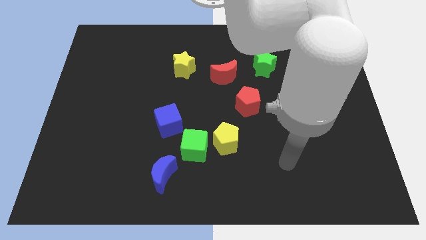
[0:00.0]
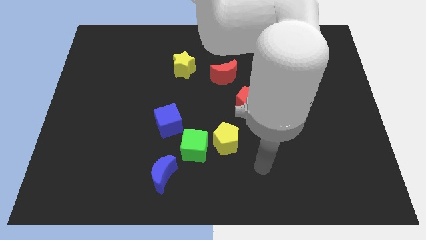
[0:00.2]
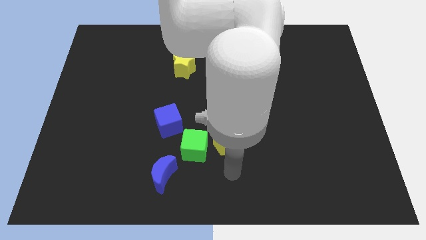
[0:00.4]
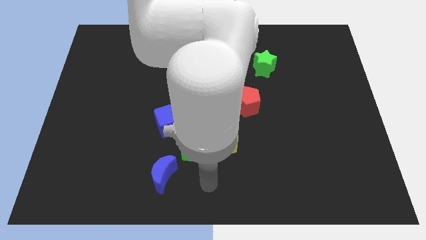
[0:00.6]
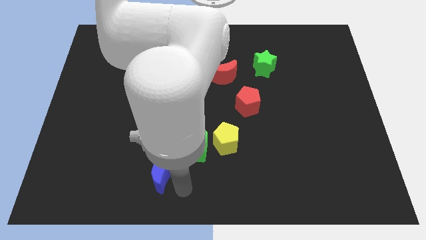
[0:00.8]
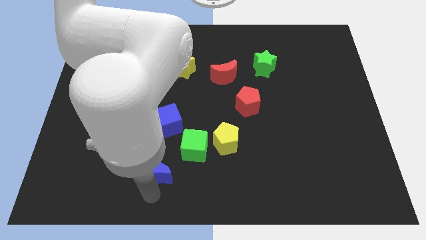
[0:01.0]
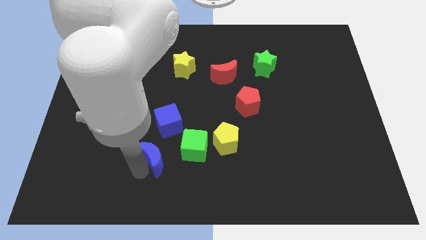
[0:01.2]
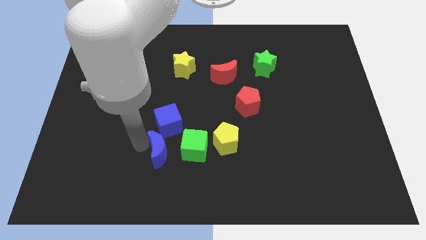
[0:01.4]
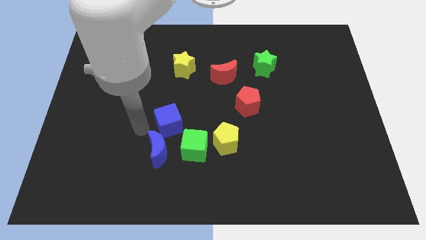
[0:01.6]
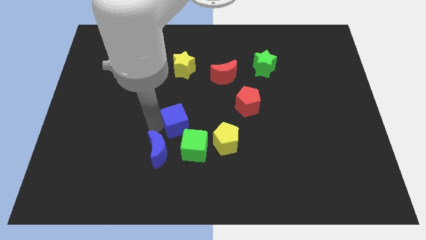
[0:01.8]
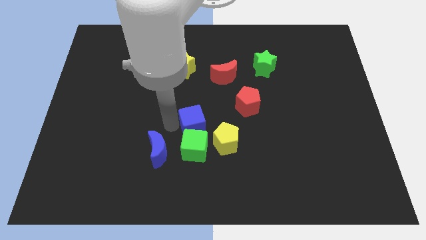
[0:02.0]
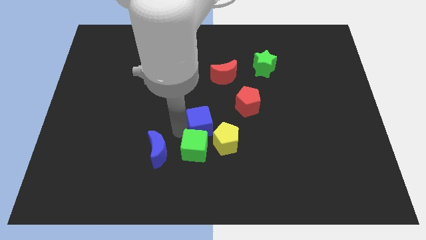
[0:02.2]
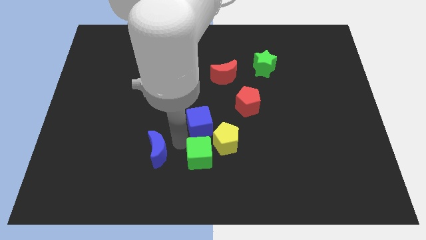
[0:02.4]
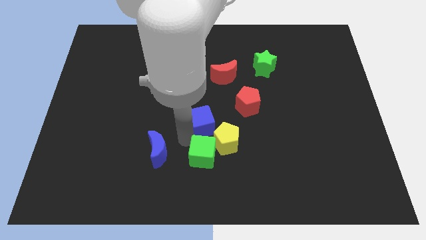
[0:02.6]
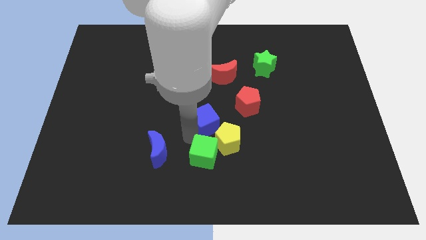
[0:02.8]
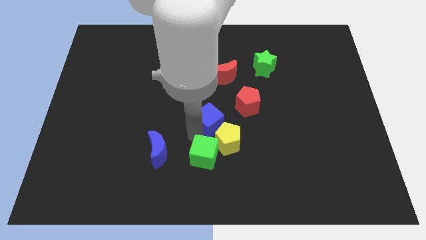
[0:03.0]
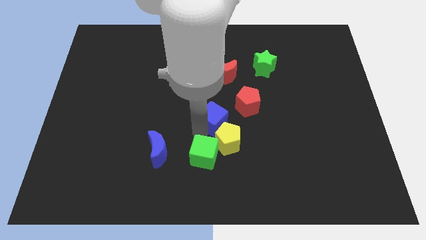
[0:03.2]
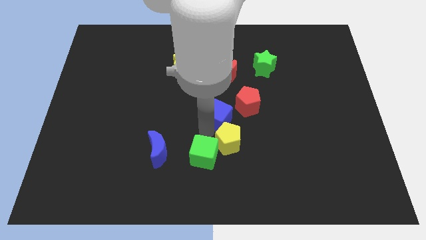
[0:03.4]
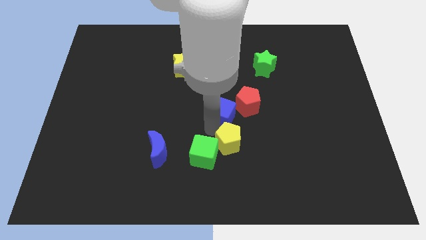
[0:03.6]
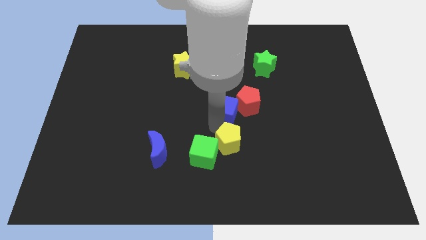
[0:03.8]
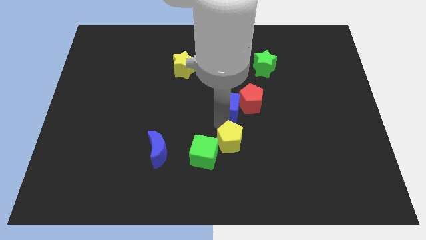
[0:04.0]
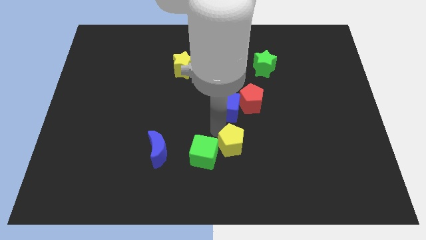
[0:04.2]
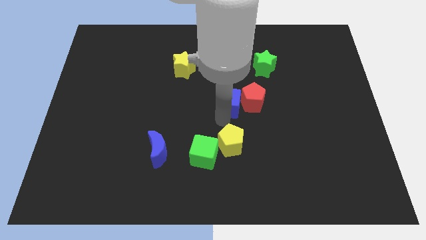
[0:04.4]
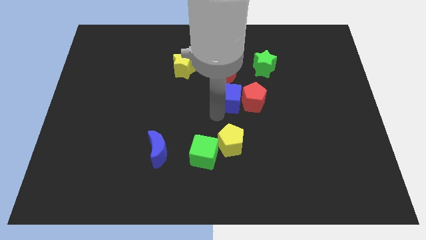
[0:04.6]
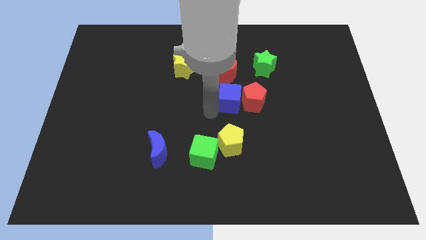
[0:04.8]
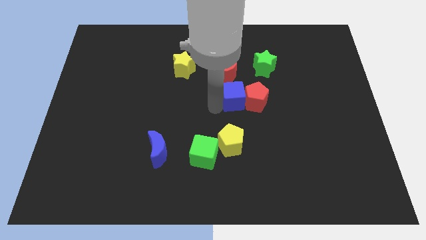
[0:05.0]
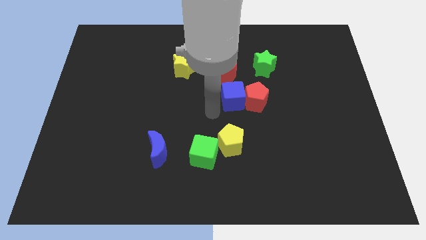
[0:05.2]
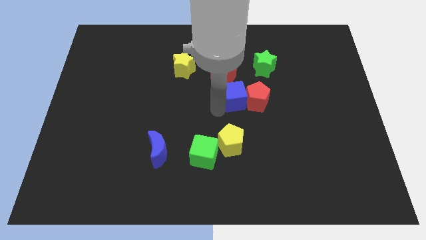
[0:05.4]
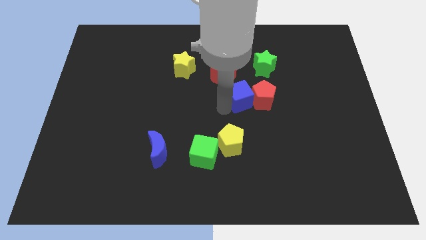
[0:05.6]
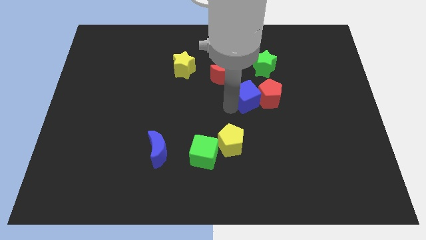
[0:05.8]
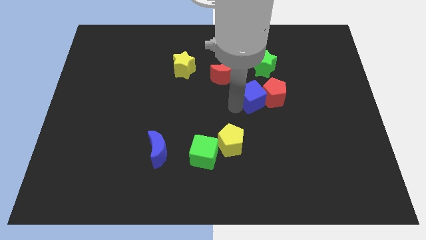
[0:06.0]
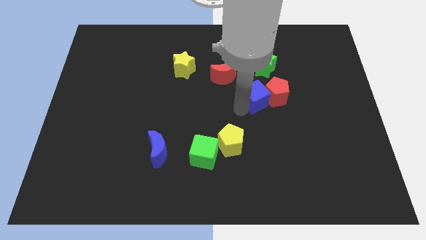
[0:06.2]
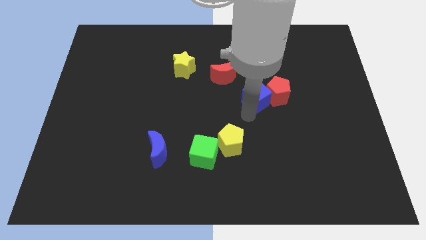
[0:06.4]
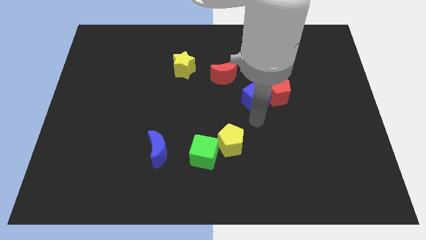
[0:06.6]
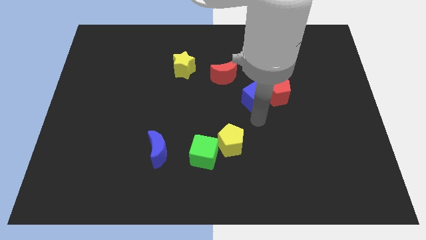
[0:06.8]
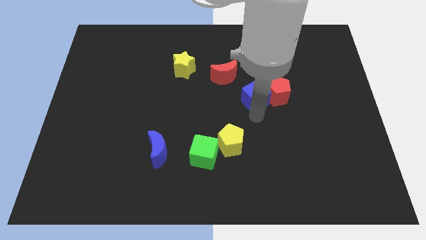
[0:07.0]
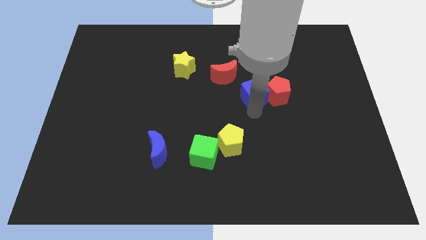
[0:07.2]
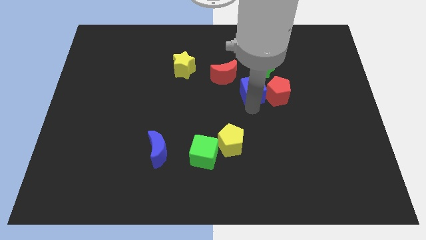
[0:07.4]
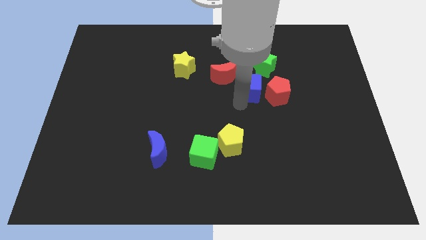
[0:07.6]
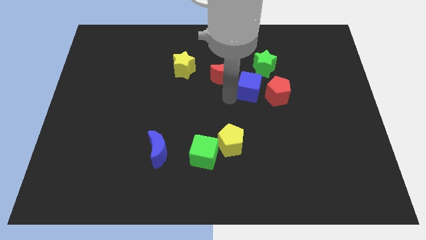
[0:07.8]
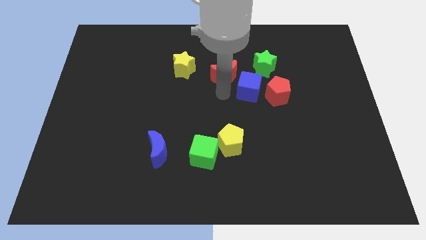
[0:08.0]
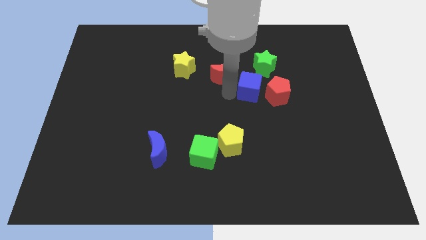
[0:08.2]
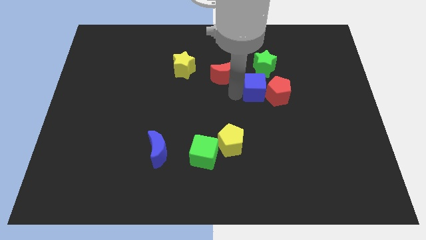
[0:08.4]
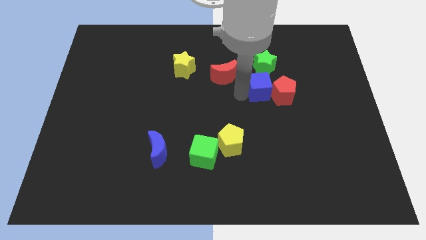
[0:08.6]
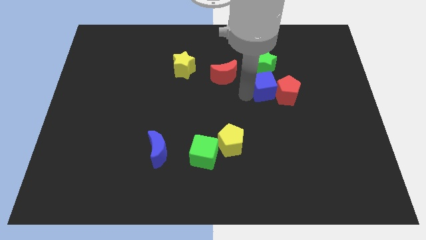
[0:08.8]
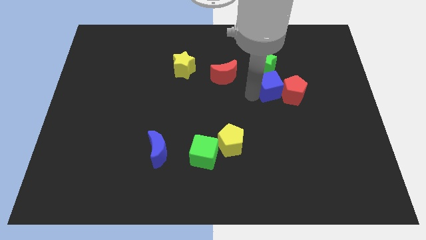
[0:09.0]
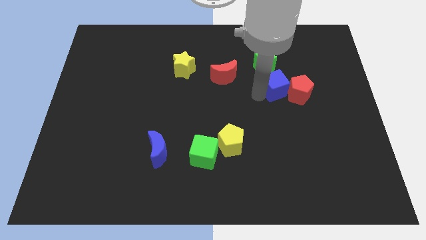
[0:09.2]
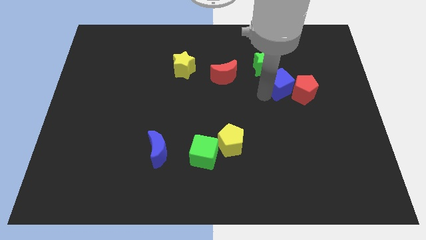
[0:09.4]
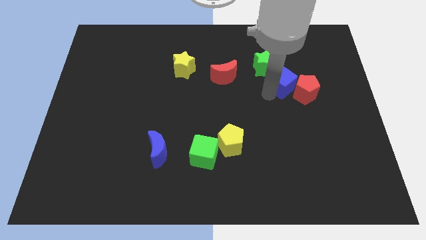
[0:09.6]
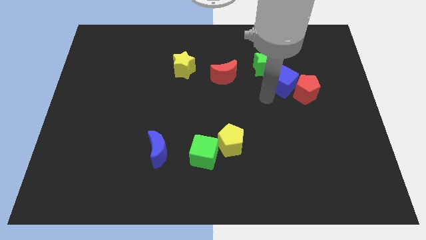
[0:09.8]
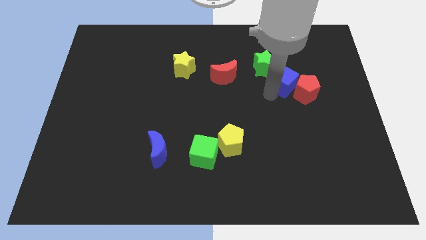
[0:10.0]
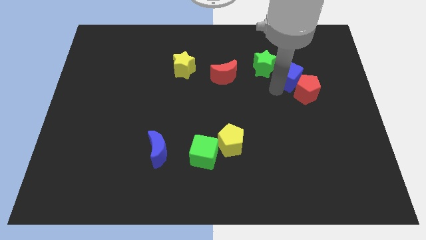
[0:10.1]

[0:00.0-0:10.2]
move the blue cube right of the green star

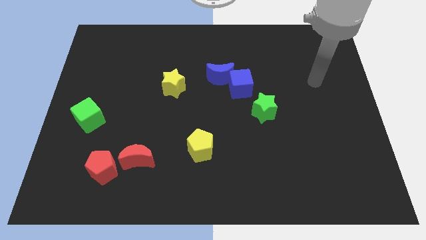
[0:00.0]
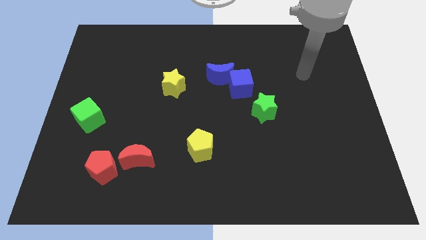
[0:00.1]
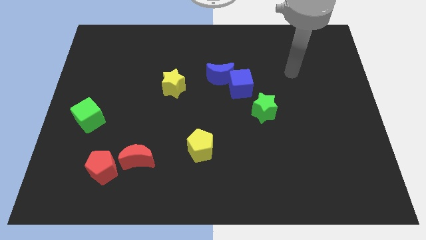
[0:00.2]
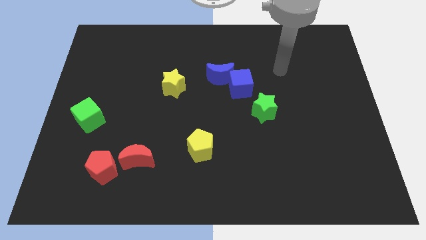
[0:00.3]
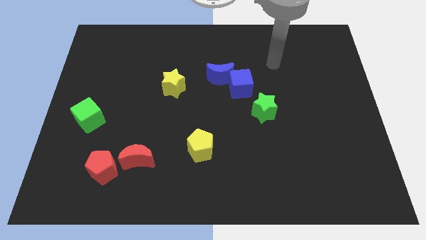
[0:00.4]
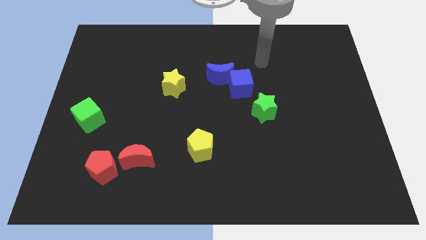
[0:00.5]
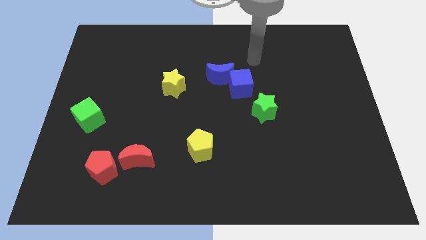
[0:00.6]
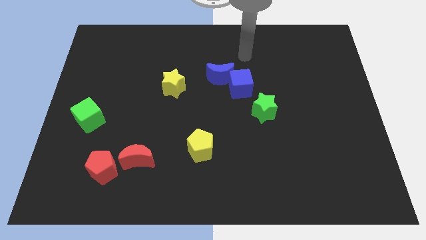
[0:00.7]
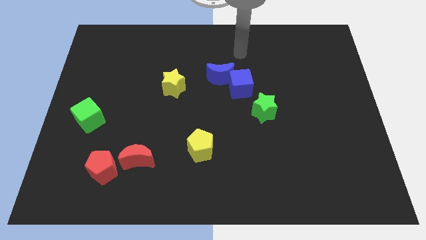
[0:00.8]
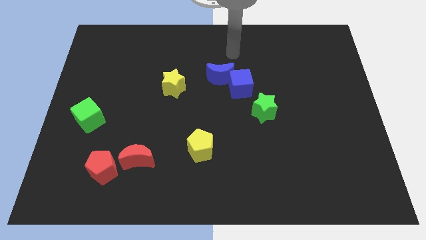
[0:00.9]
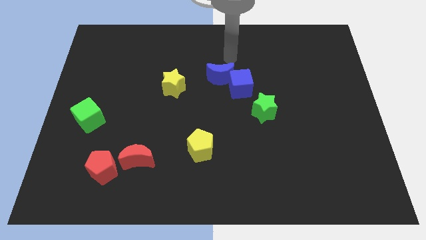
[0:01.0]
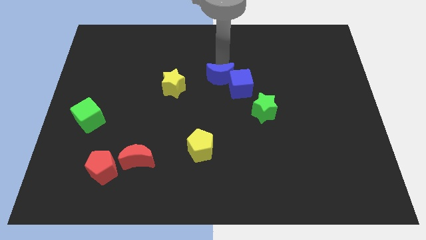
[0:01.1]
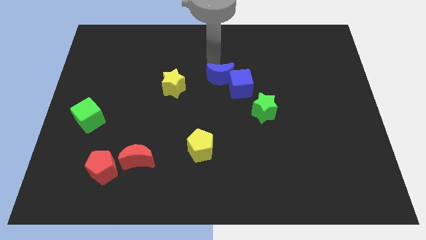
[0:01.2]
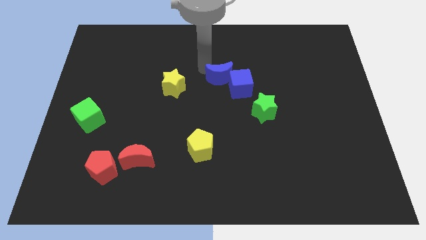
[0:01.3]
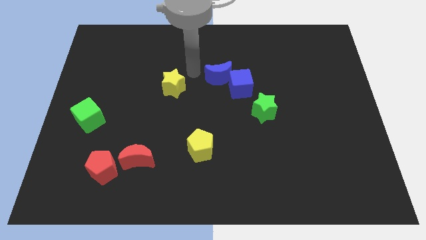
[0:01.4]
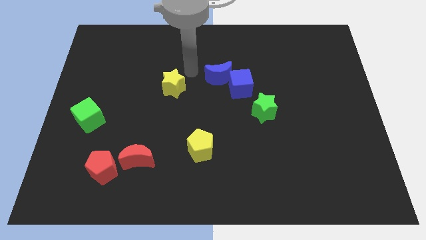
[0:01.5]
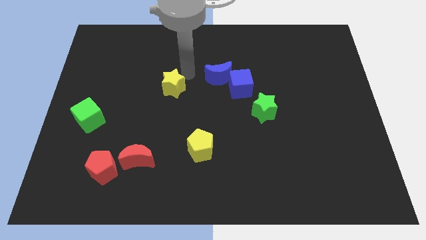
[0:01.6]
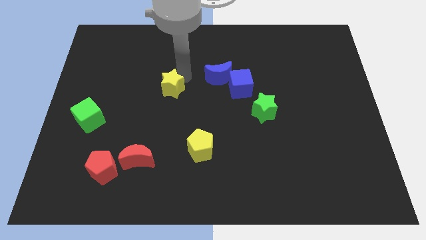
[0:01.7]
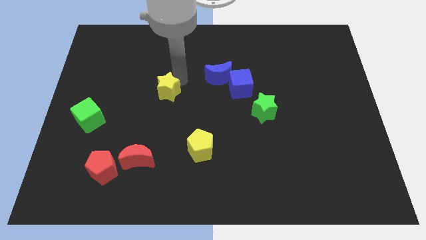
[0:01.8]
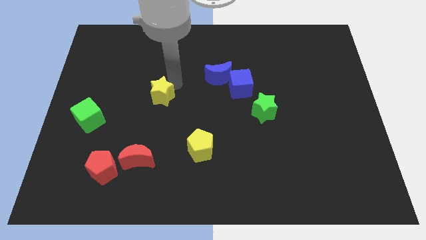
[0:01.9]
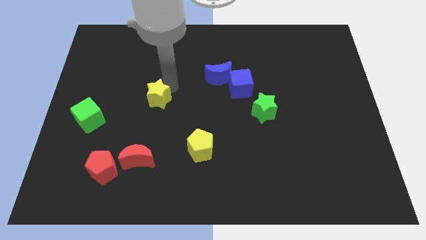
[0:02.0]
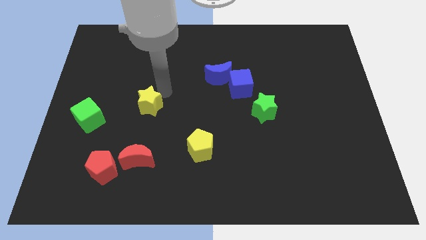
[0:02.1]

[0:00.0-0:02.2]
slide the yellow star to the right of the green cube
